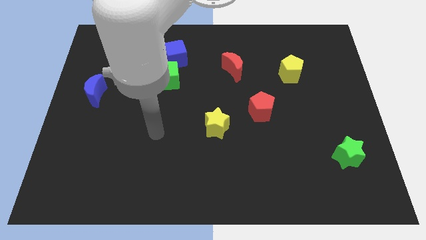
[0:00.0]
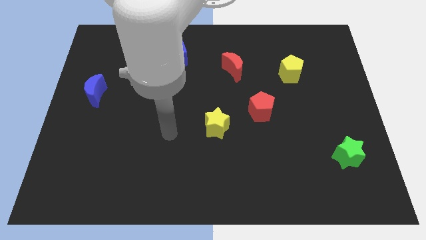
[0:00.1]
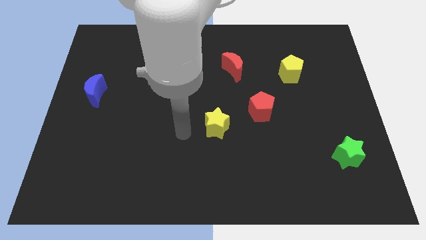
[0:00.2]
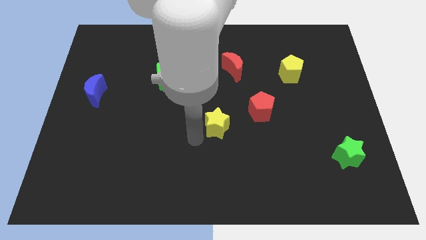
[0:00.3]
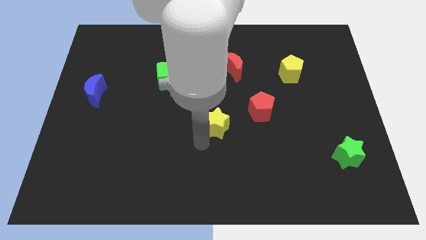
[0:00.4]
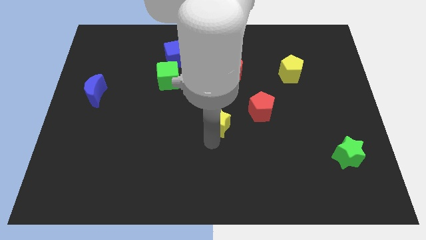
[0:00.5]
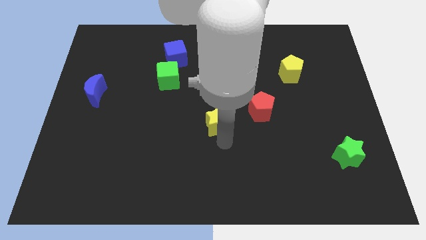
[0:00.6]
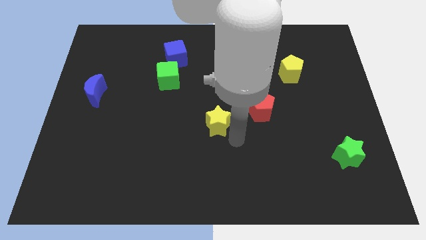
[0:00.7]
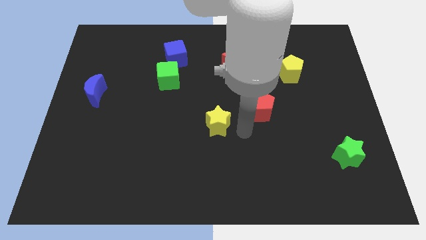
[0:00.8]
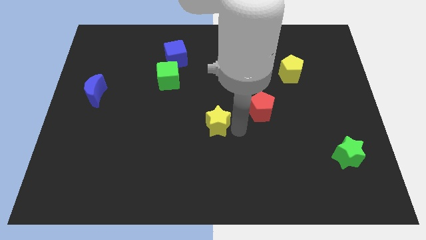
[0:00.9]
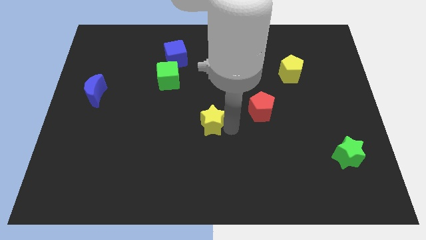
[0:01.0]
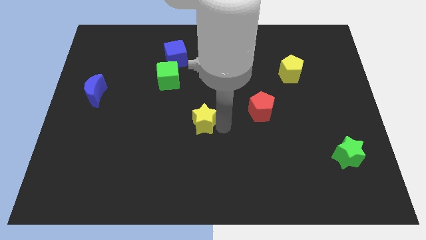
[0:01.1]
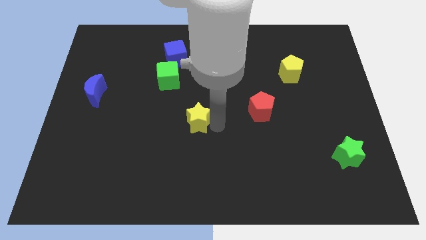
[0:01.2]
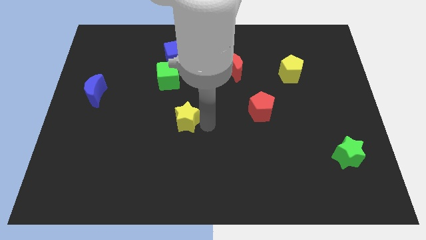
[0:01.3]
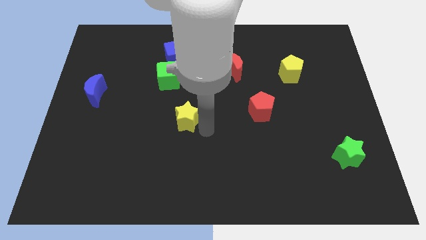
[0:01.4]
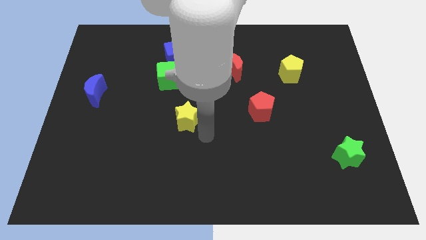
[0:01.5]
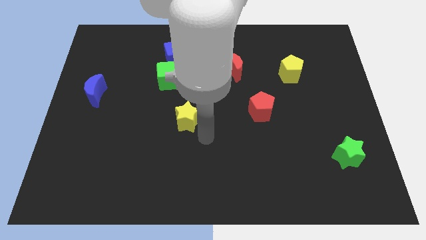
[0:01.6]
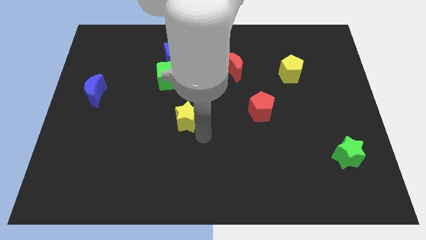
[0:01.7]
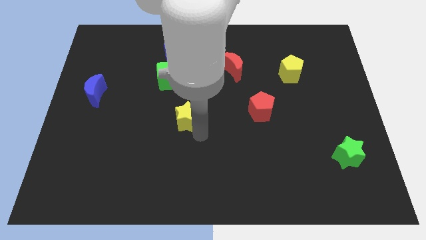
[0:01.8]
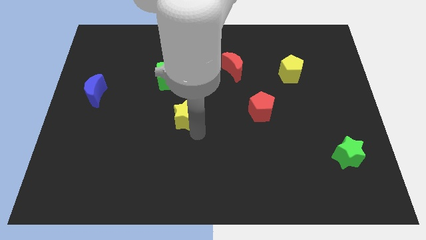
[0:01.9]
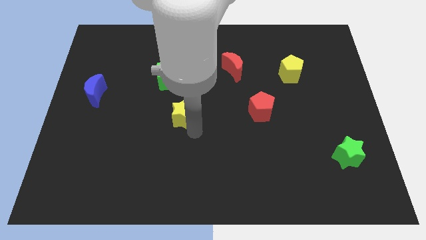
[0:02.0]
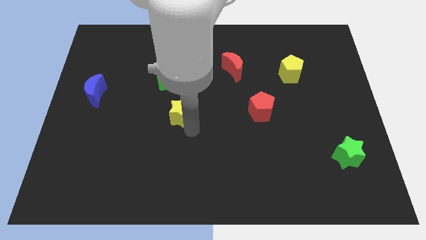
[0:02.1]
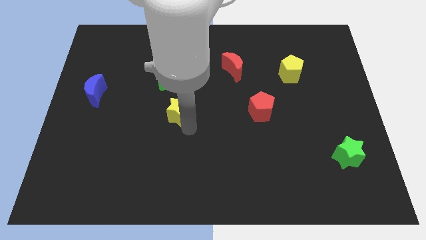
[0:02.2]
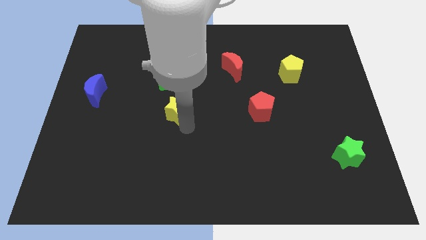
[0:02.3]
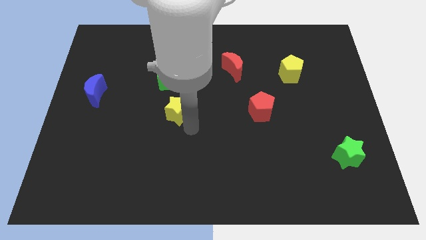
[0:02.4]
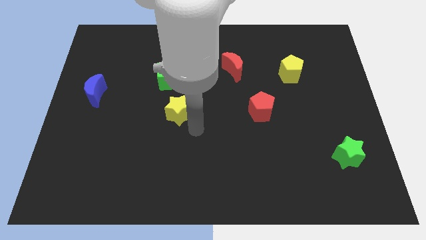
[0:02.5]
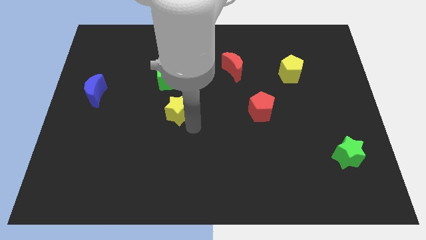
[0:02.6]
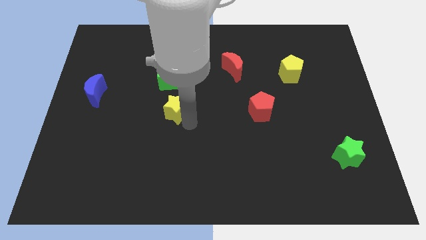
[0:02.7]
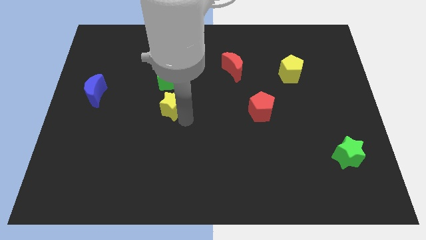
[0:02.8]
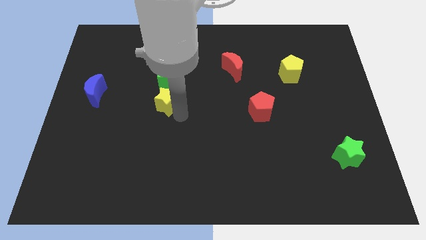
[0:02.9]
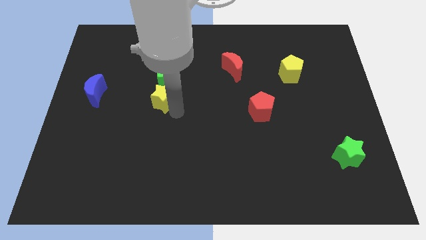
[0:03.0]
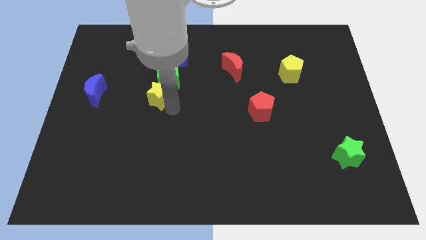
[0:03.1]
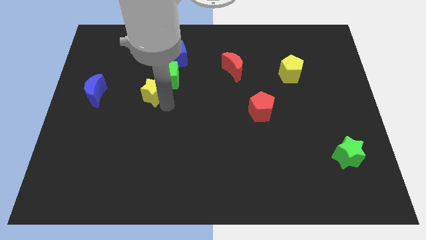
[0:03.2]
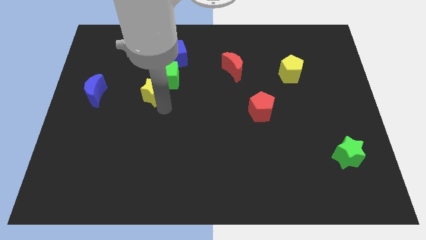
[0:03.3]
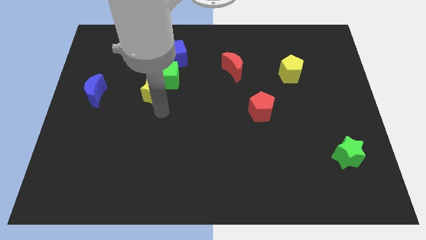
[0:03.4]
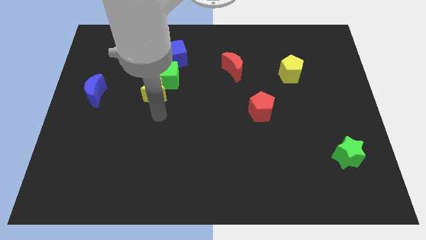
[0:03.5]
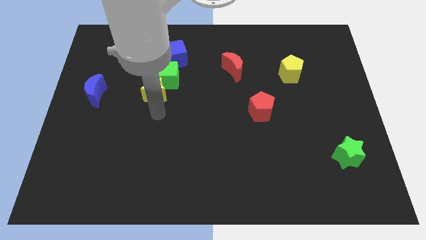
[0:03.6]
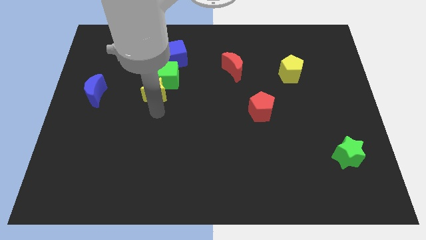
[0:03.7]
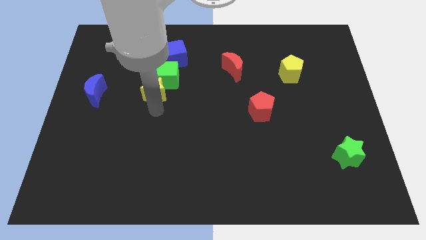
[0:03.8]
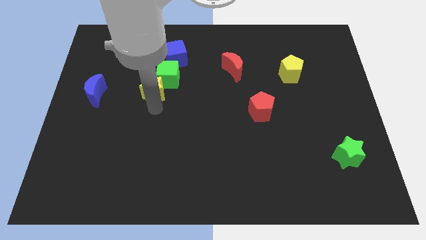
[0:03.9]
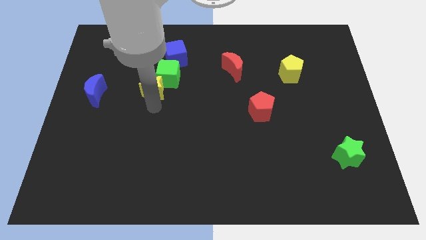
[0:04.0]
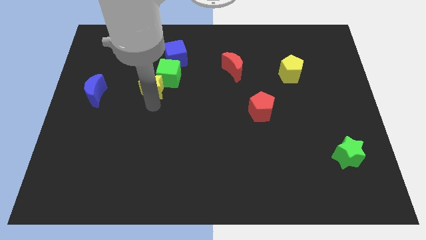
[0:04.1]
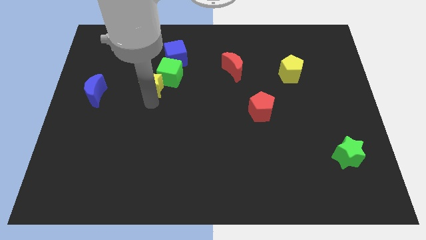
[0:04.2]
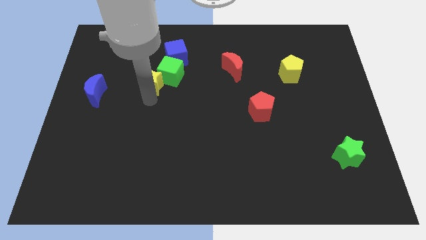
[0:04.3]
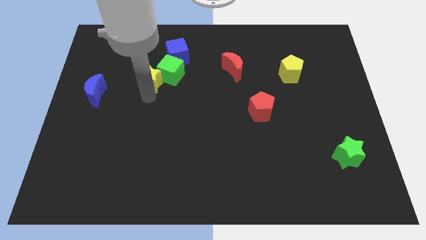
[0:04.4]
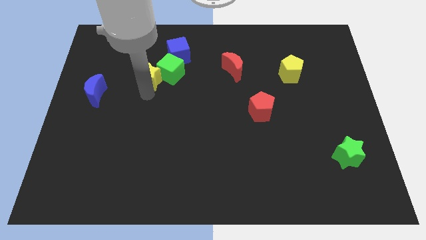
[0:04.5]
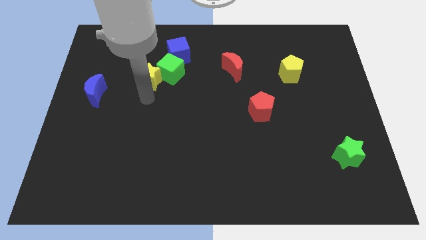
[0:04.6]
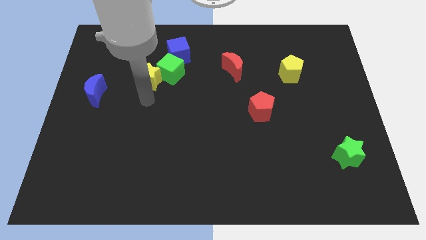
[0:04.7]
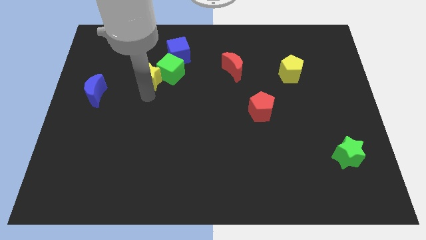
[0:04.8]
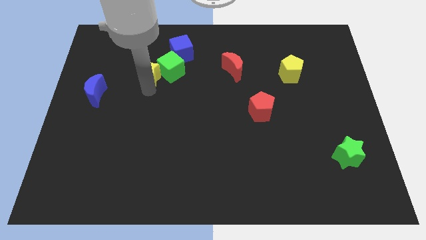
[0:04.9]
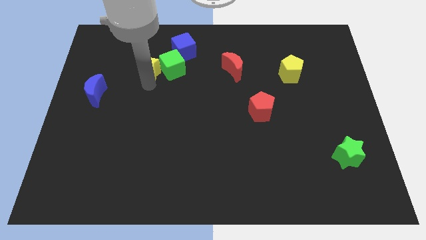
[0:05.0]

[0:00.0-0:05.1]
put the yellow star diagonally up and to the left of the green cube

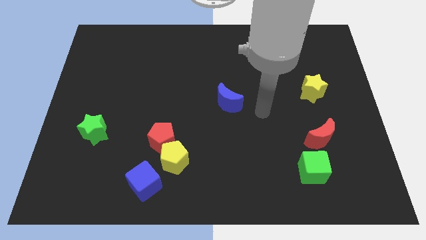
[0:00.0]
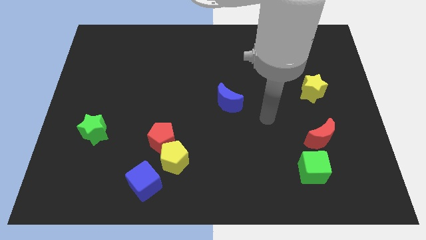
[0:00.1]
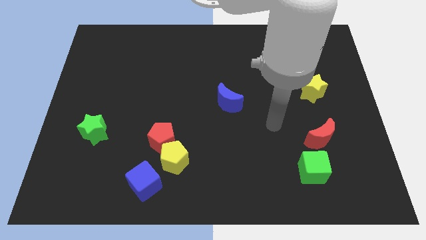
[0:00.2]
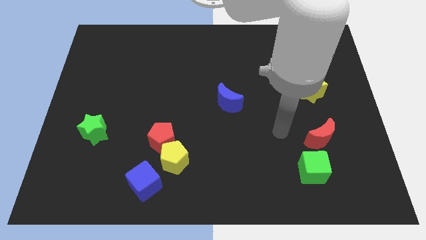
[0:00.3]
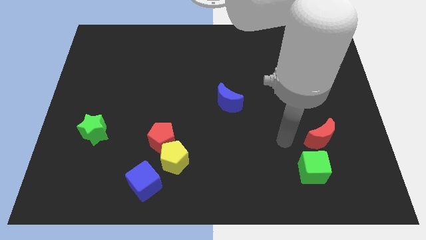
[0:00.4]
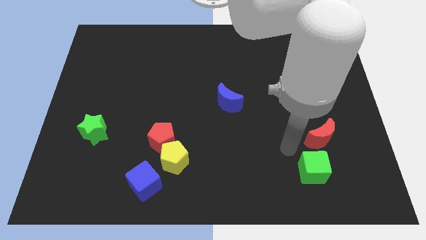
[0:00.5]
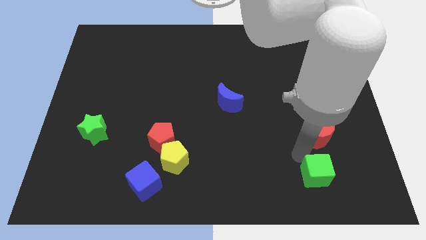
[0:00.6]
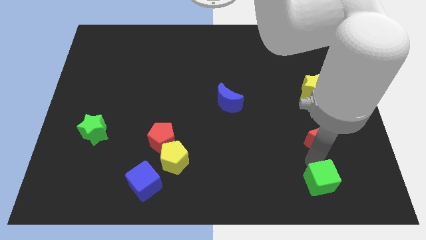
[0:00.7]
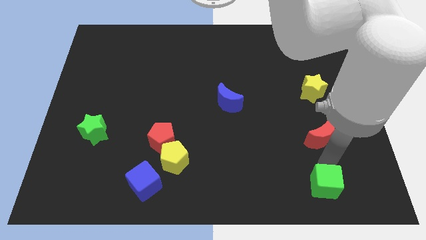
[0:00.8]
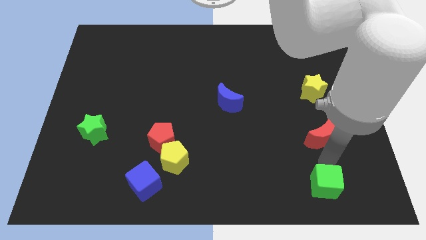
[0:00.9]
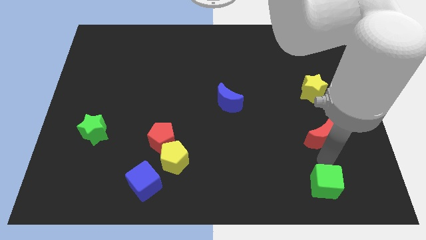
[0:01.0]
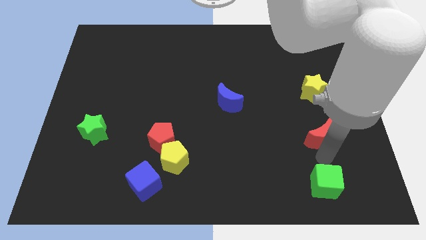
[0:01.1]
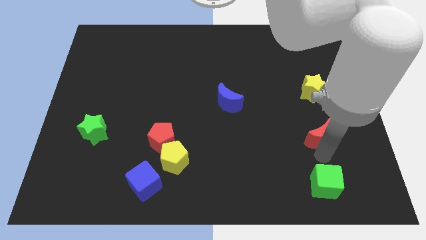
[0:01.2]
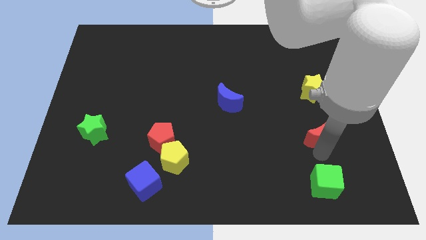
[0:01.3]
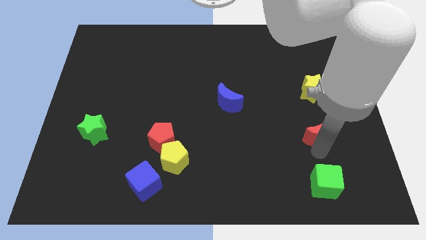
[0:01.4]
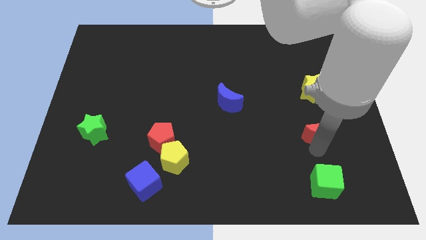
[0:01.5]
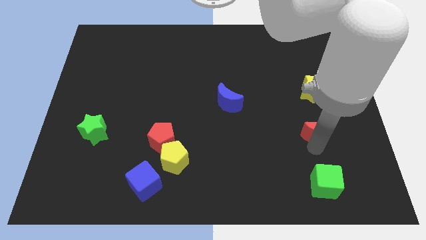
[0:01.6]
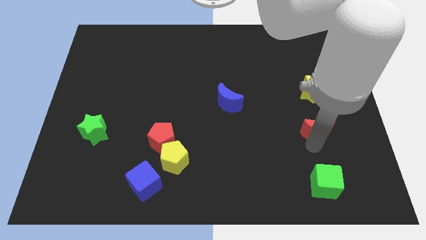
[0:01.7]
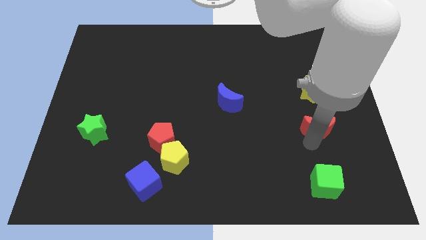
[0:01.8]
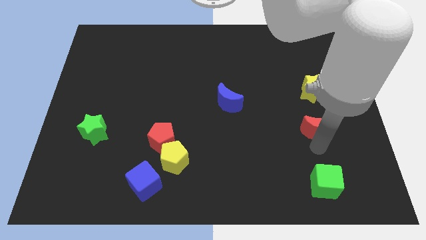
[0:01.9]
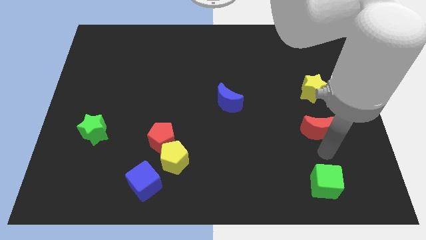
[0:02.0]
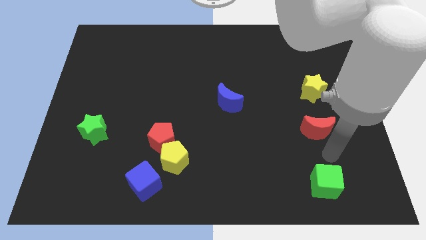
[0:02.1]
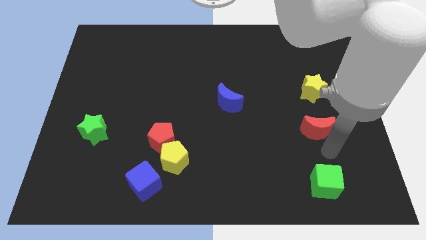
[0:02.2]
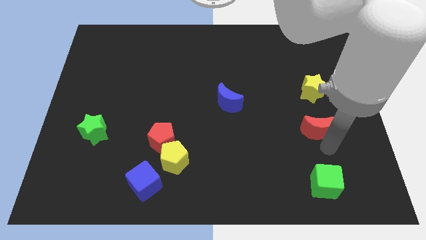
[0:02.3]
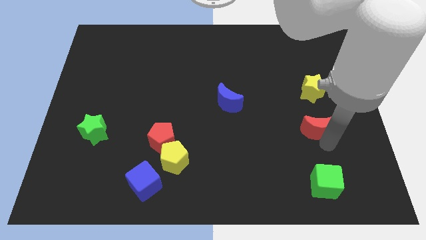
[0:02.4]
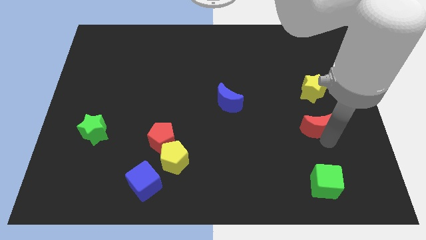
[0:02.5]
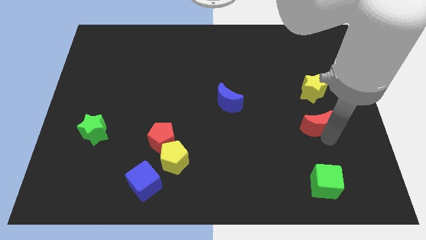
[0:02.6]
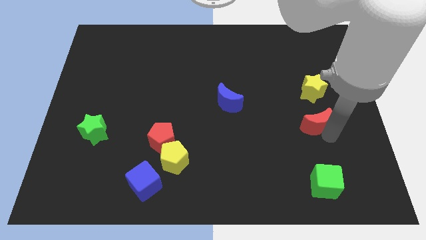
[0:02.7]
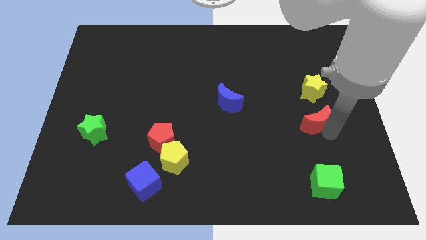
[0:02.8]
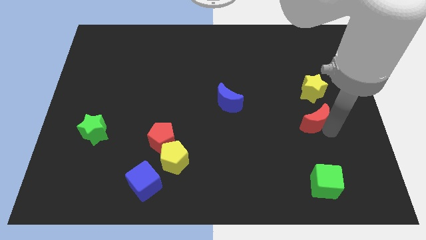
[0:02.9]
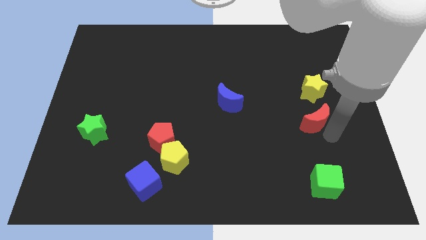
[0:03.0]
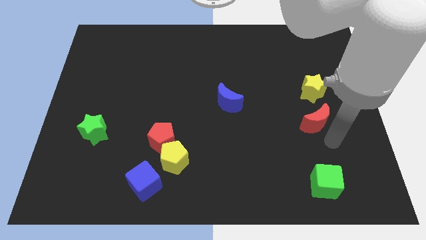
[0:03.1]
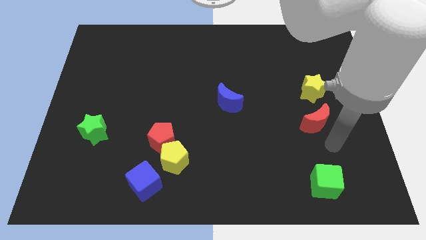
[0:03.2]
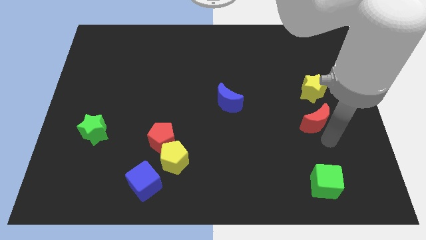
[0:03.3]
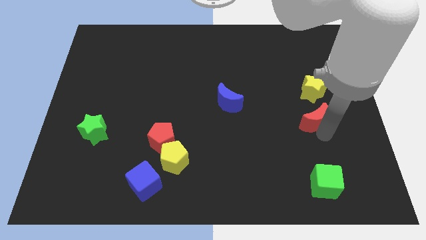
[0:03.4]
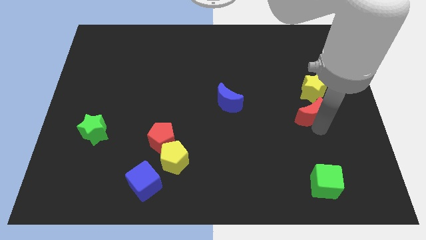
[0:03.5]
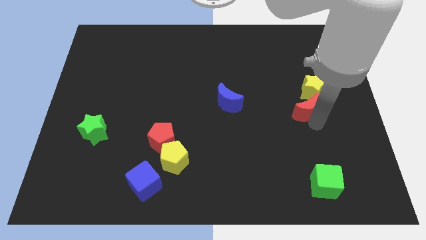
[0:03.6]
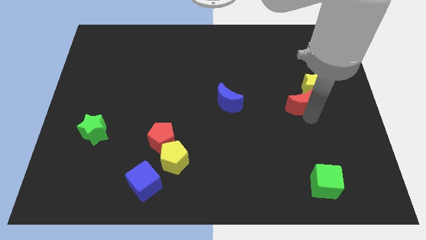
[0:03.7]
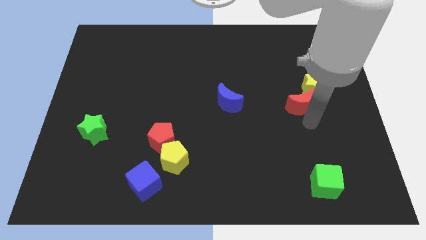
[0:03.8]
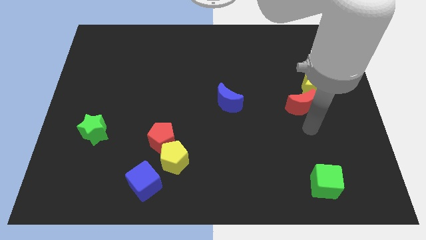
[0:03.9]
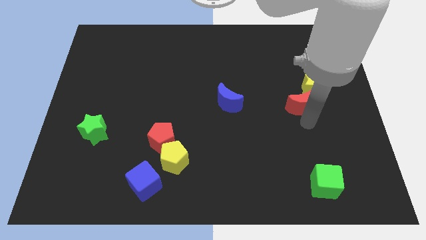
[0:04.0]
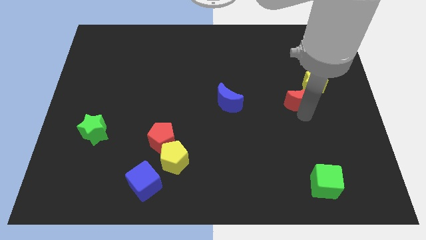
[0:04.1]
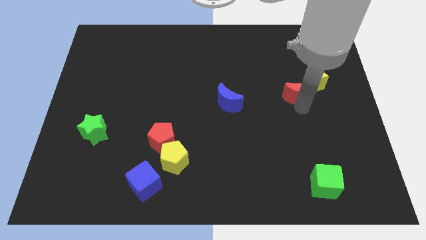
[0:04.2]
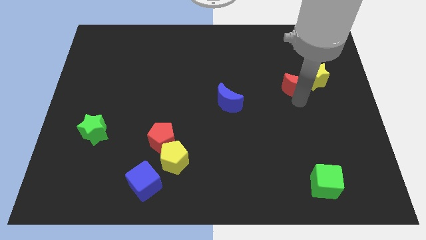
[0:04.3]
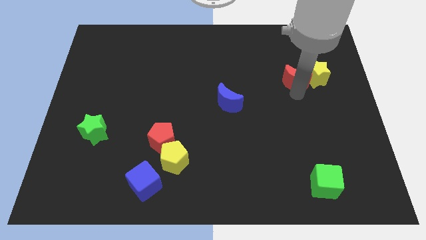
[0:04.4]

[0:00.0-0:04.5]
slide the red moon diagonally up and to the left of the yellow star
